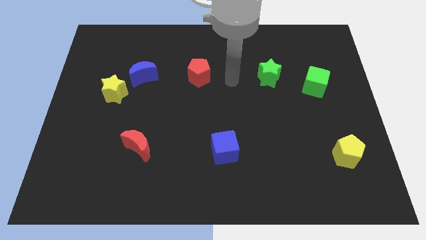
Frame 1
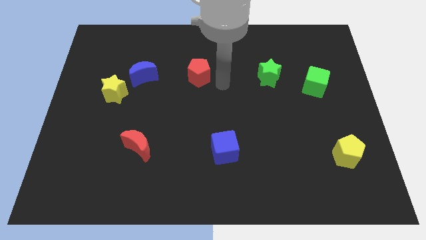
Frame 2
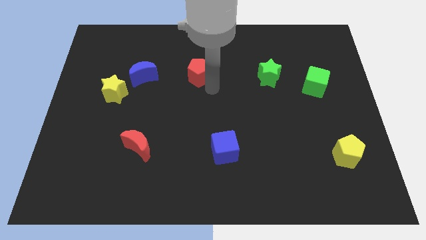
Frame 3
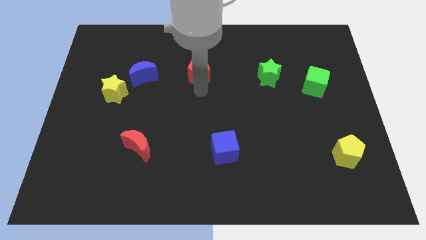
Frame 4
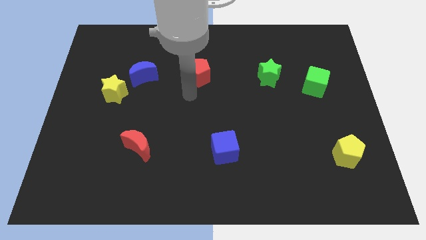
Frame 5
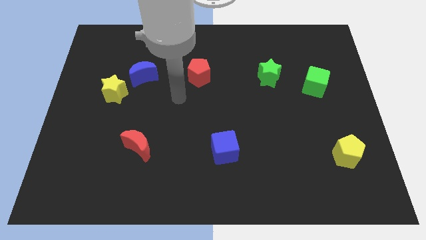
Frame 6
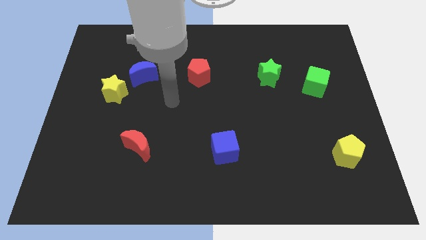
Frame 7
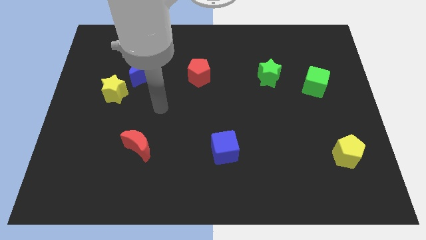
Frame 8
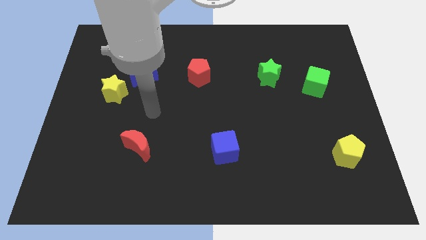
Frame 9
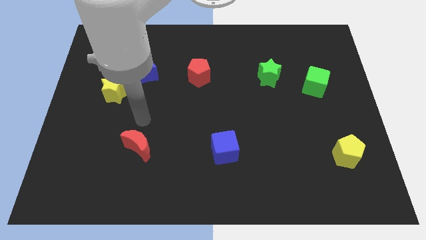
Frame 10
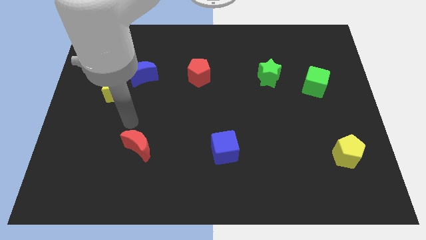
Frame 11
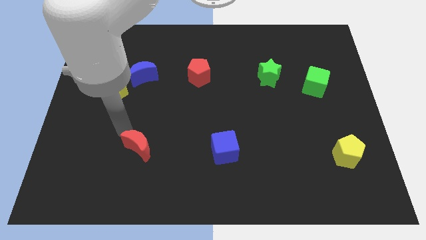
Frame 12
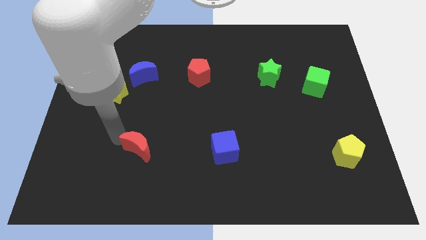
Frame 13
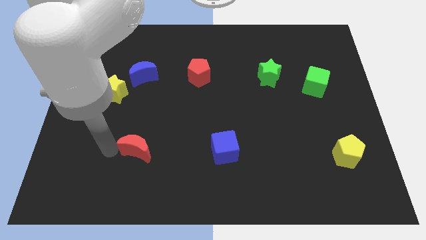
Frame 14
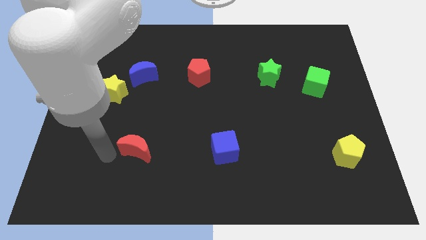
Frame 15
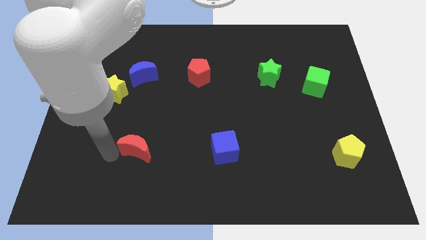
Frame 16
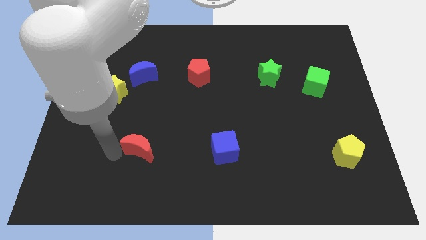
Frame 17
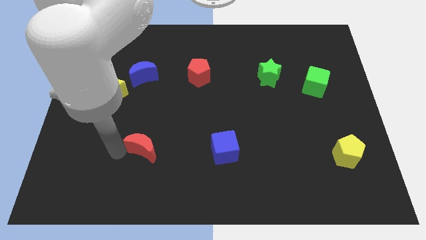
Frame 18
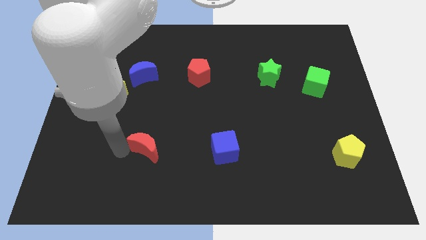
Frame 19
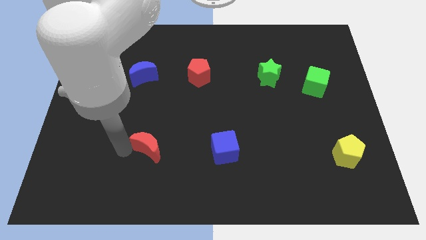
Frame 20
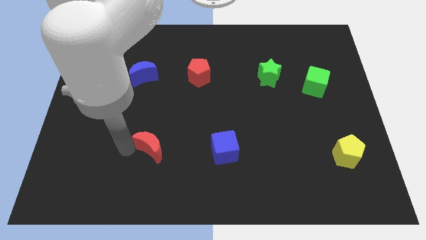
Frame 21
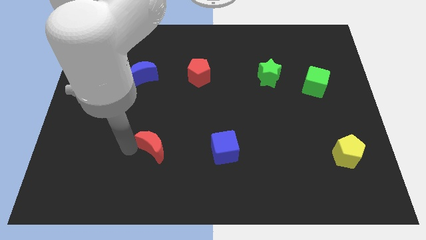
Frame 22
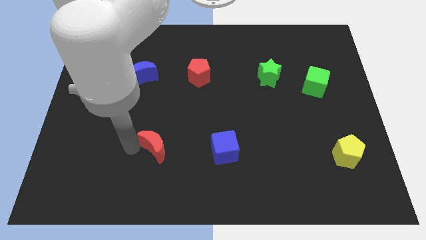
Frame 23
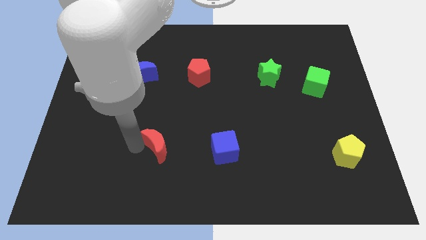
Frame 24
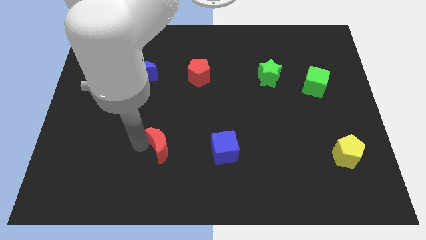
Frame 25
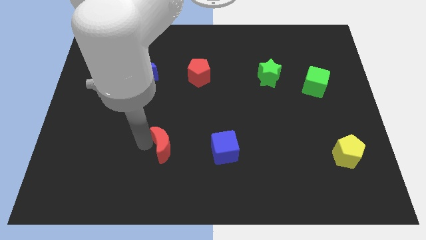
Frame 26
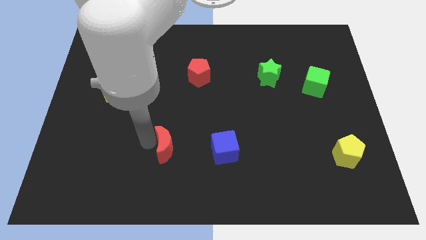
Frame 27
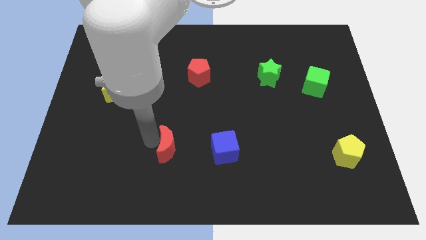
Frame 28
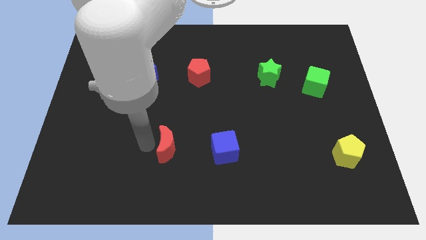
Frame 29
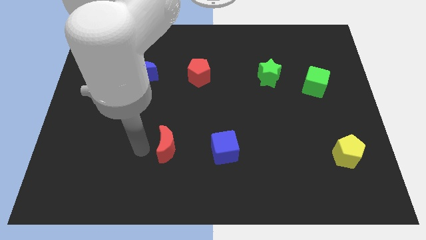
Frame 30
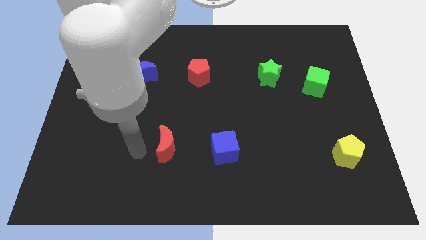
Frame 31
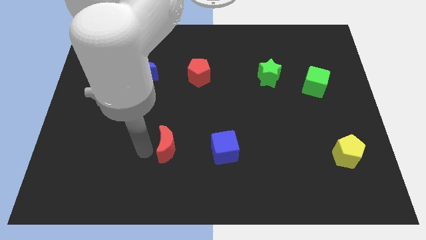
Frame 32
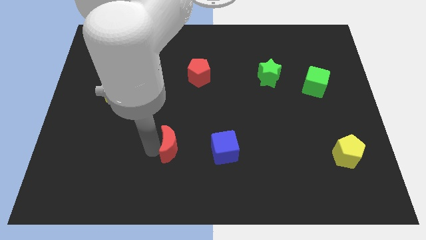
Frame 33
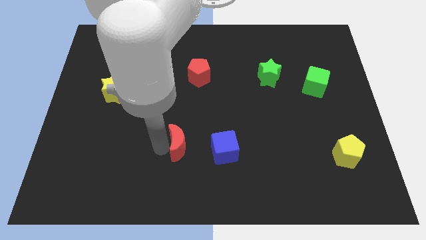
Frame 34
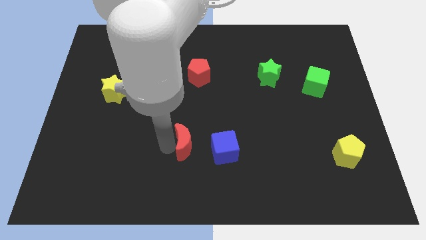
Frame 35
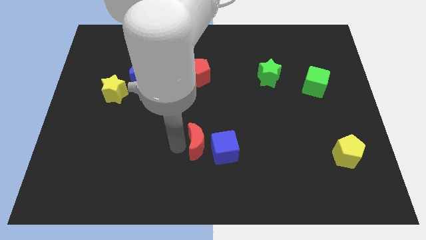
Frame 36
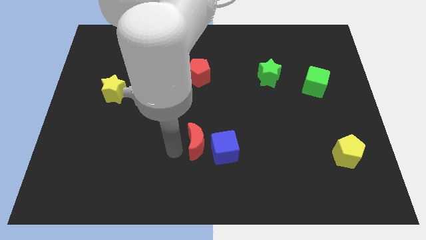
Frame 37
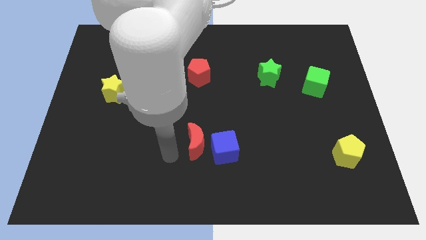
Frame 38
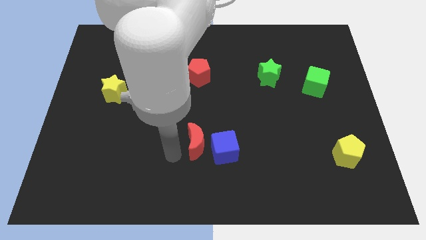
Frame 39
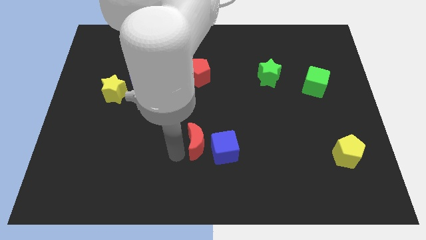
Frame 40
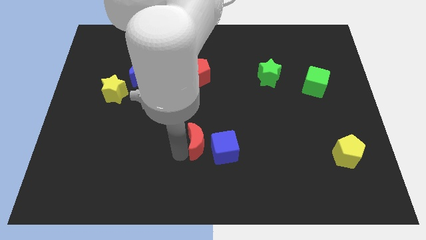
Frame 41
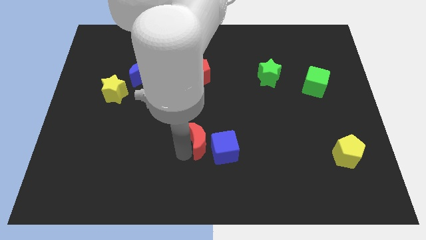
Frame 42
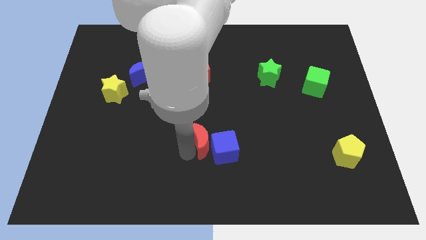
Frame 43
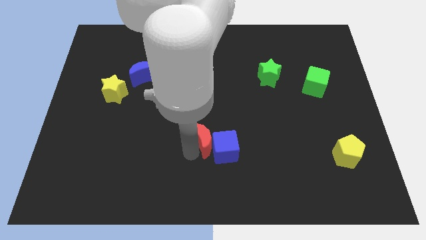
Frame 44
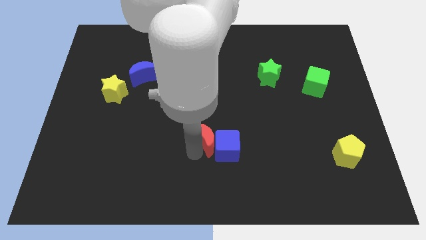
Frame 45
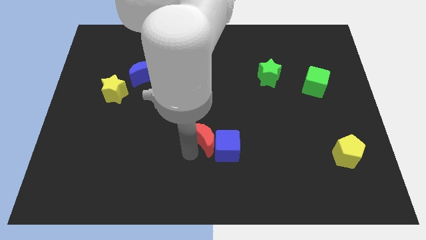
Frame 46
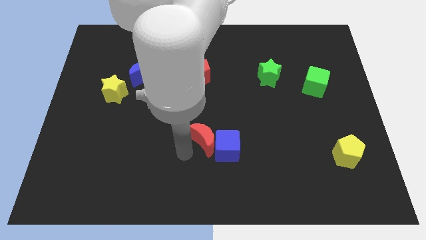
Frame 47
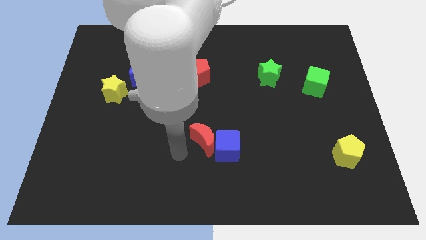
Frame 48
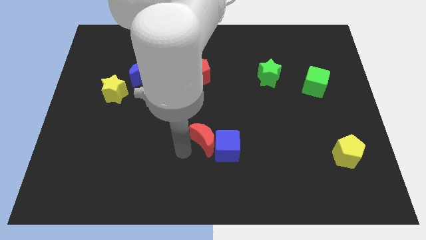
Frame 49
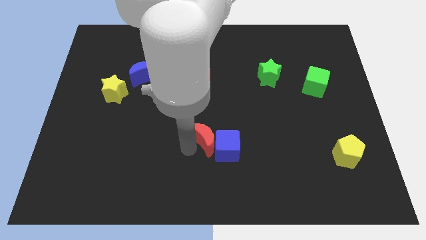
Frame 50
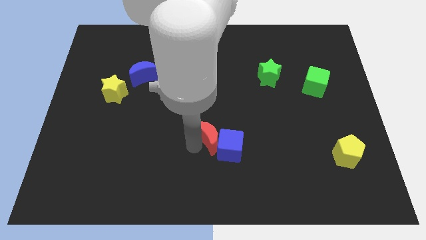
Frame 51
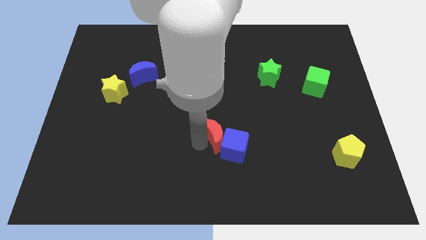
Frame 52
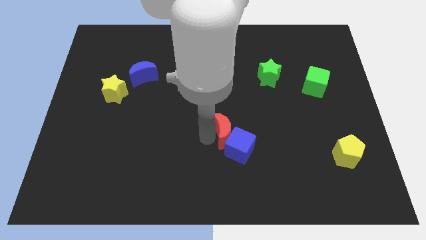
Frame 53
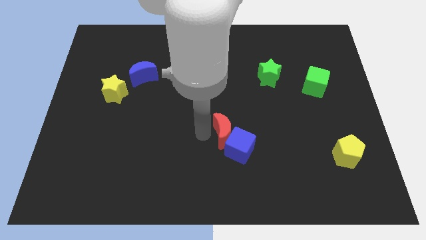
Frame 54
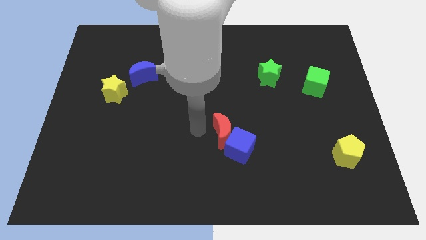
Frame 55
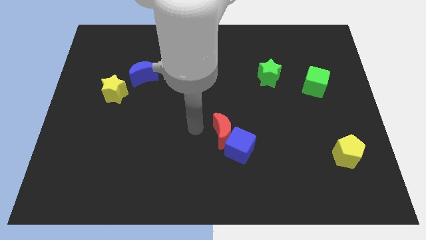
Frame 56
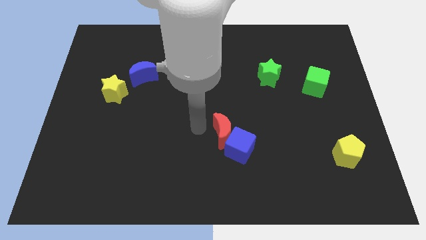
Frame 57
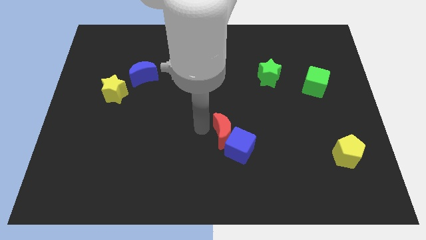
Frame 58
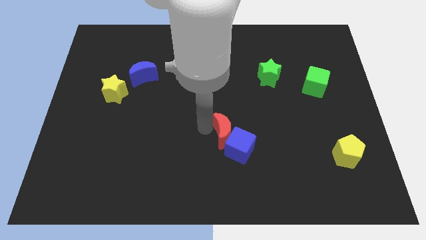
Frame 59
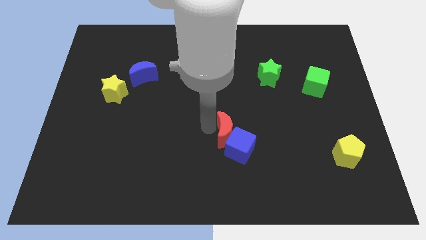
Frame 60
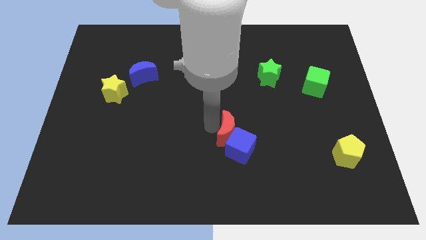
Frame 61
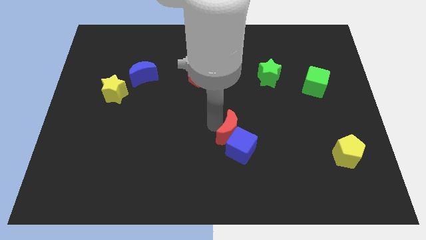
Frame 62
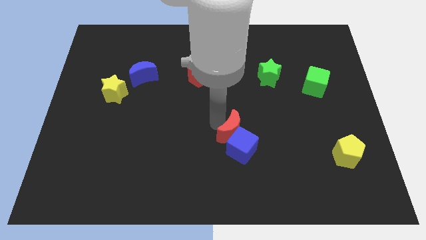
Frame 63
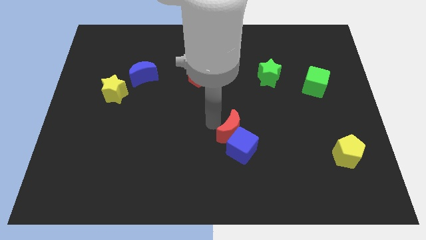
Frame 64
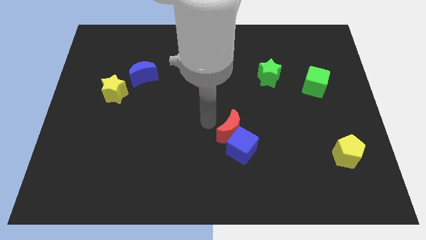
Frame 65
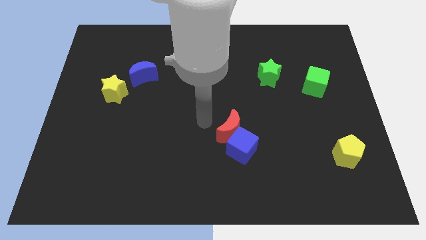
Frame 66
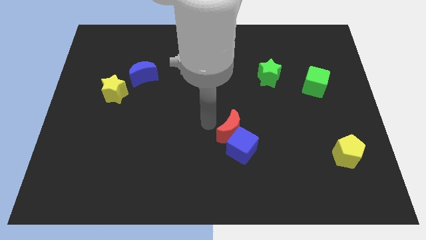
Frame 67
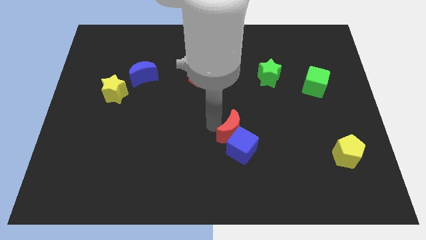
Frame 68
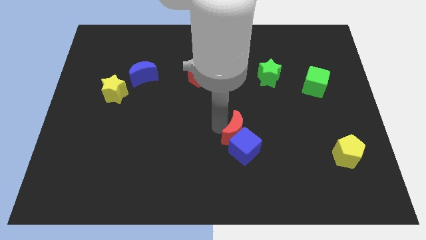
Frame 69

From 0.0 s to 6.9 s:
move the red moon right

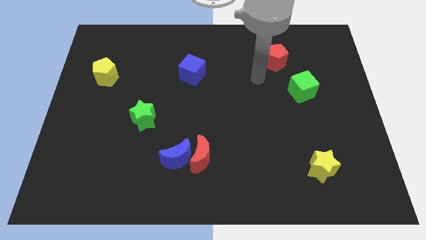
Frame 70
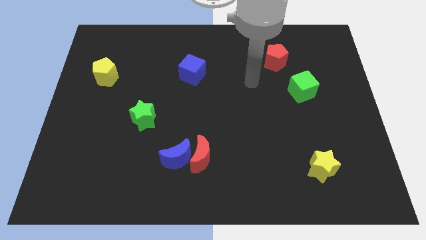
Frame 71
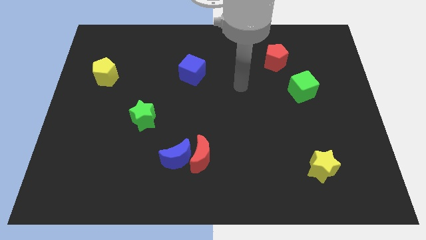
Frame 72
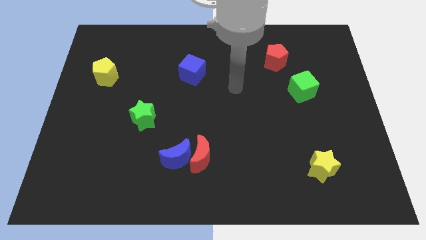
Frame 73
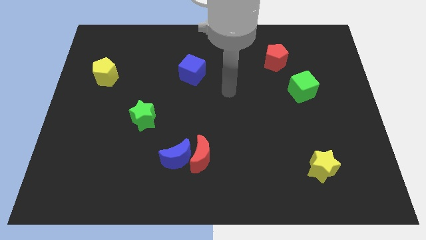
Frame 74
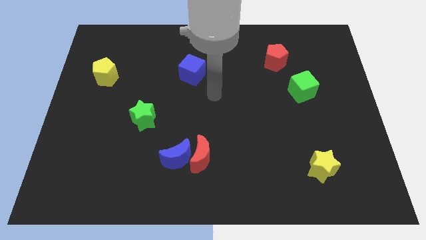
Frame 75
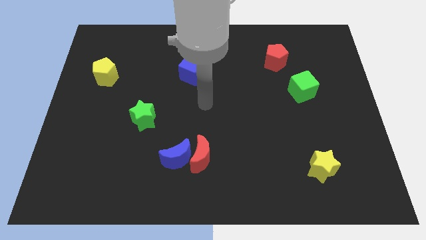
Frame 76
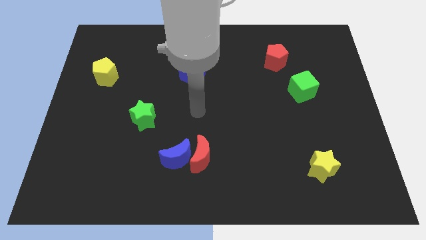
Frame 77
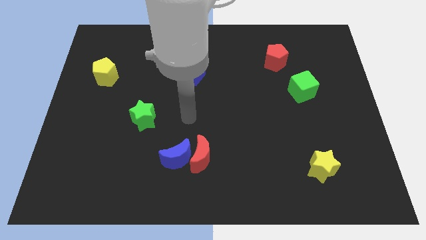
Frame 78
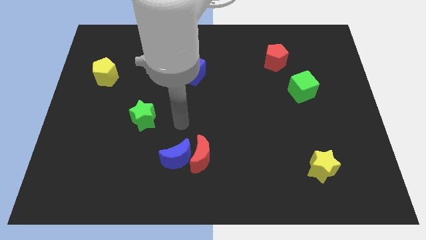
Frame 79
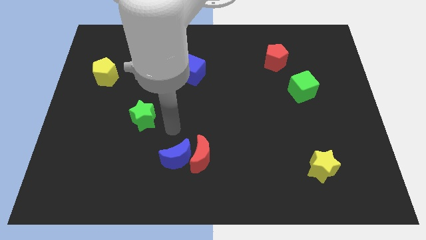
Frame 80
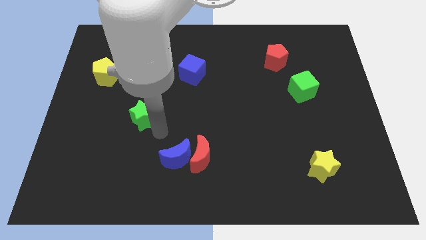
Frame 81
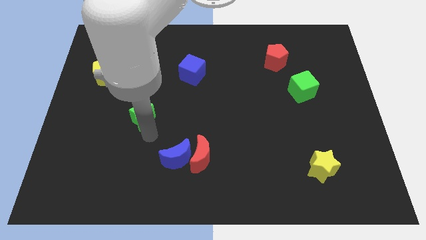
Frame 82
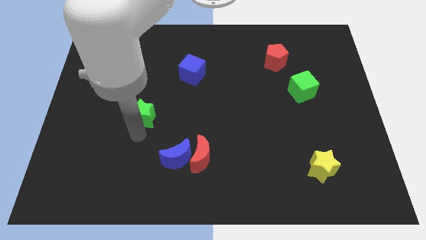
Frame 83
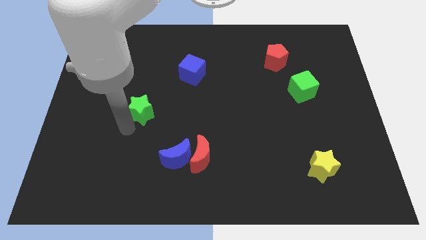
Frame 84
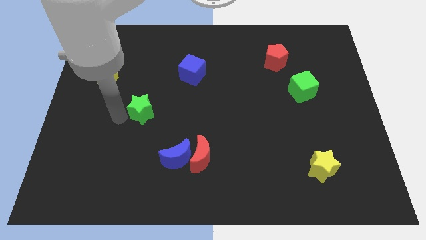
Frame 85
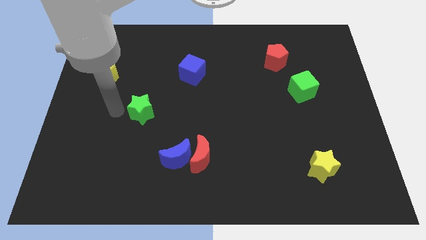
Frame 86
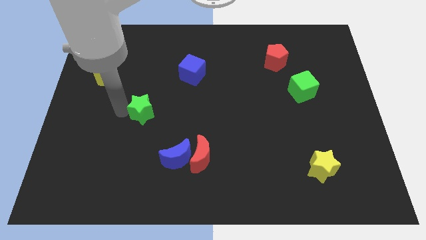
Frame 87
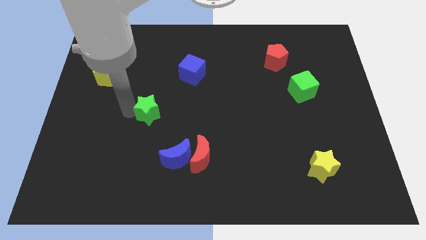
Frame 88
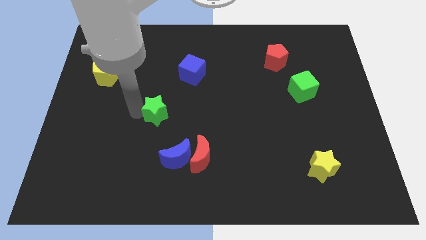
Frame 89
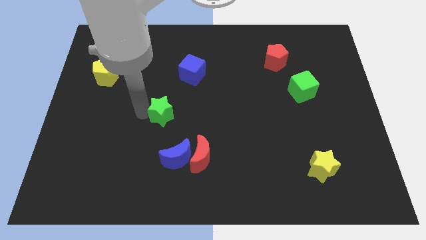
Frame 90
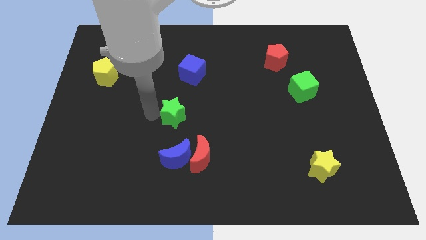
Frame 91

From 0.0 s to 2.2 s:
move the green star a little to the right
